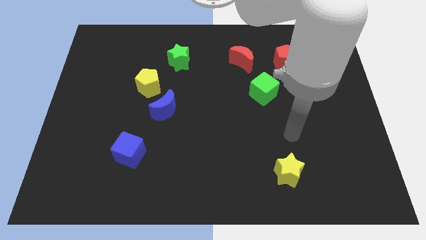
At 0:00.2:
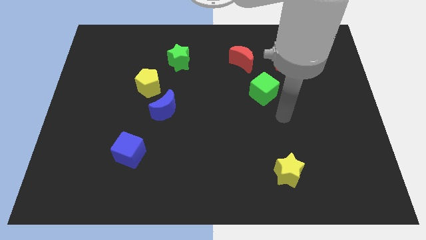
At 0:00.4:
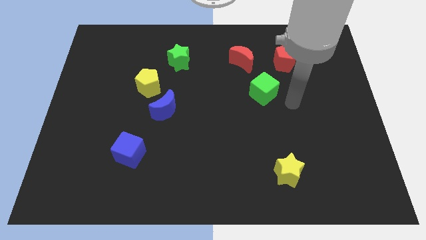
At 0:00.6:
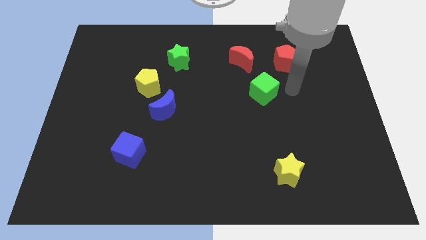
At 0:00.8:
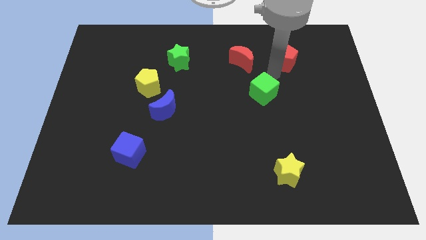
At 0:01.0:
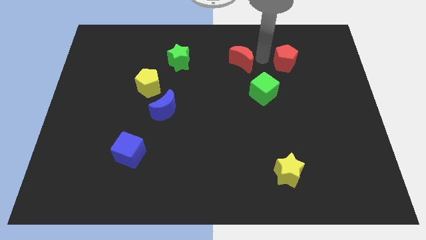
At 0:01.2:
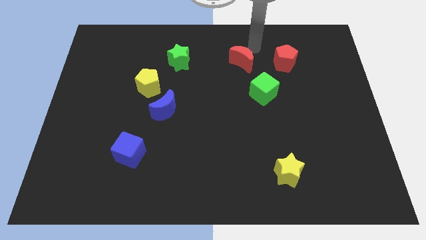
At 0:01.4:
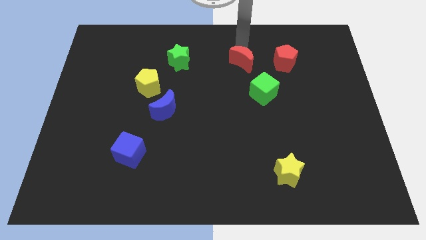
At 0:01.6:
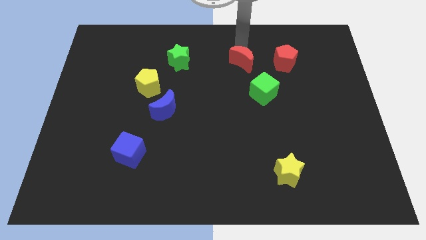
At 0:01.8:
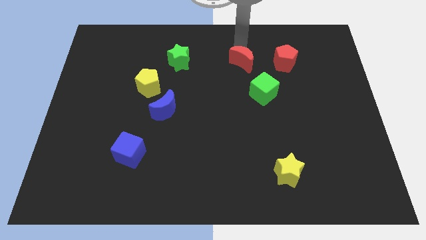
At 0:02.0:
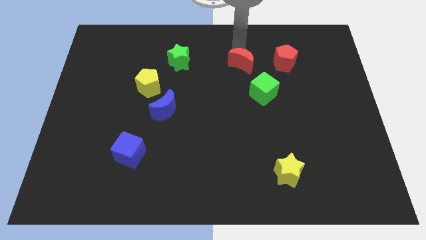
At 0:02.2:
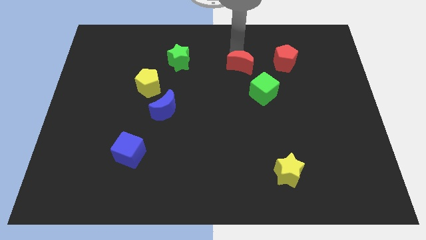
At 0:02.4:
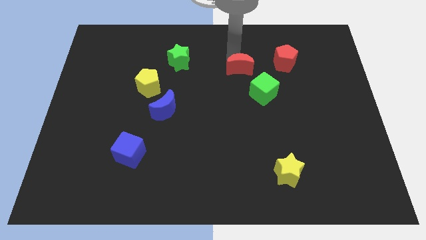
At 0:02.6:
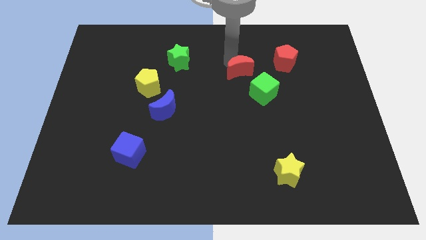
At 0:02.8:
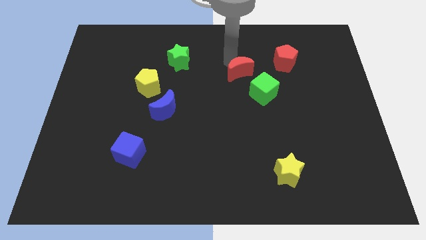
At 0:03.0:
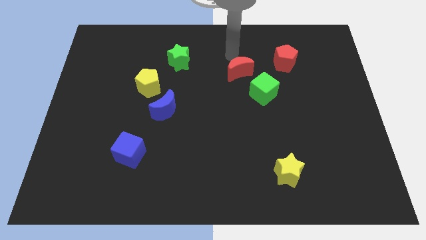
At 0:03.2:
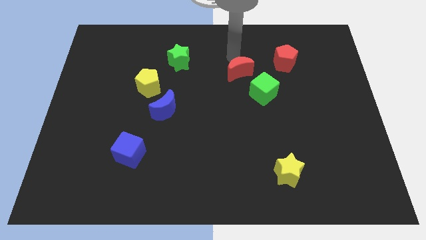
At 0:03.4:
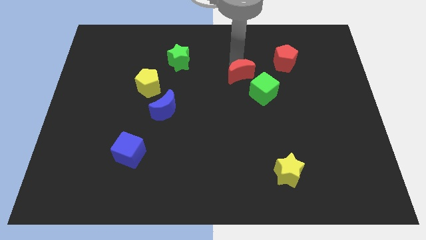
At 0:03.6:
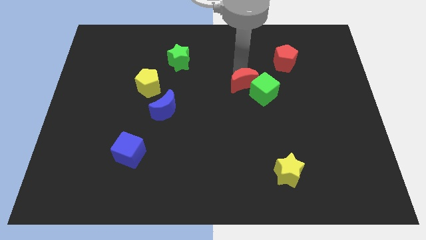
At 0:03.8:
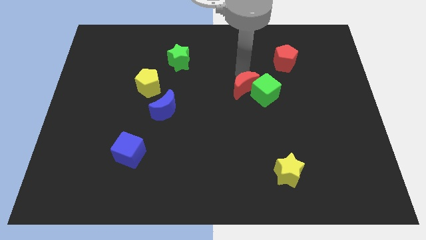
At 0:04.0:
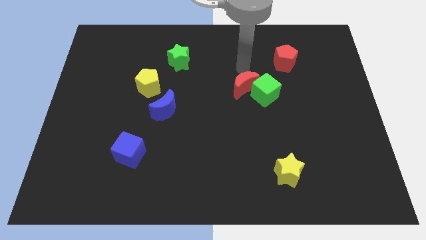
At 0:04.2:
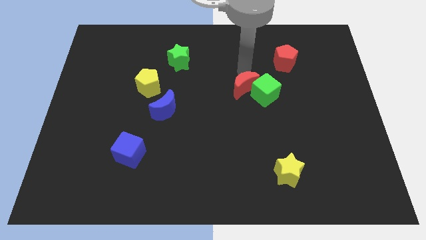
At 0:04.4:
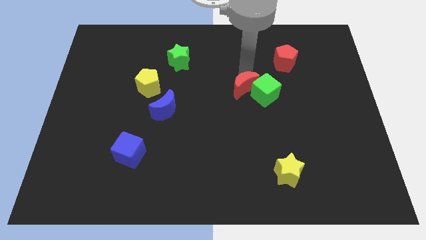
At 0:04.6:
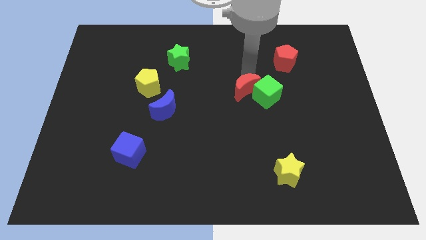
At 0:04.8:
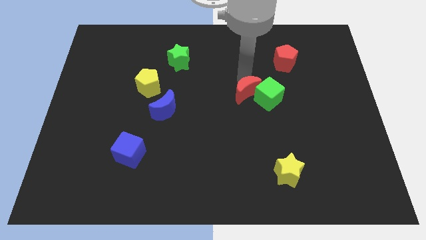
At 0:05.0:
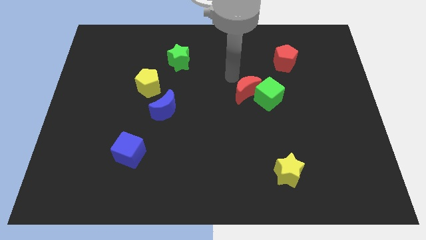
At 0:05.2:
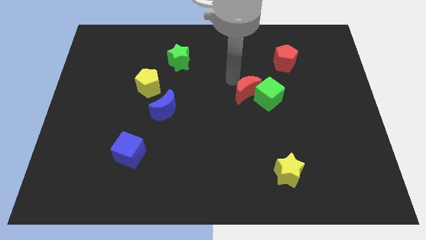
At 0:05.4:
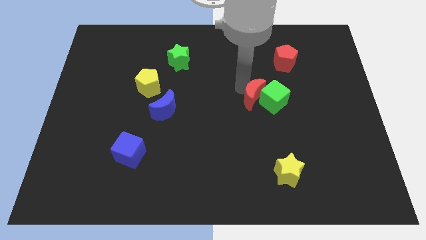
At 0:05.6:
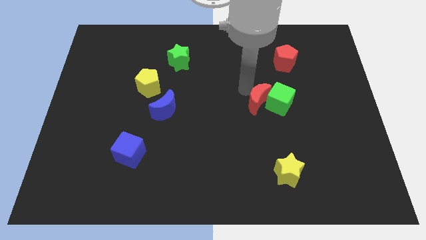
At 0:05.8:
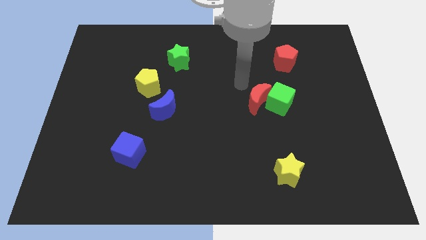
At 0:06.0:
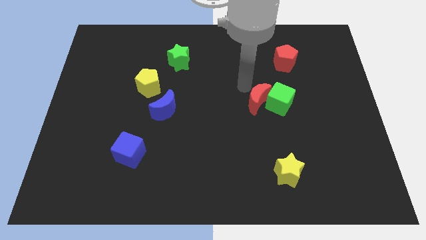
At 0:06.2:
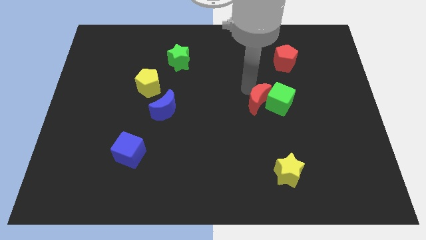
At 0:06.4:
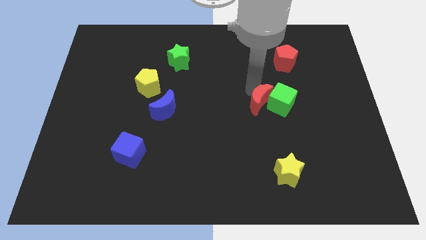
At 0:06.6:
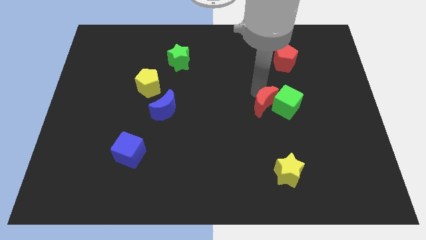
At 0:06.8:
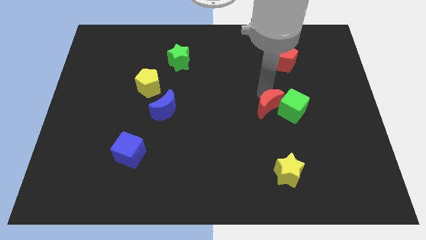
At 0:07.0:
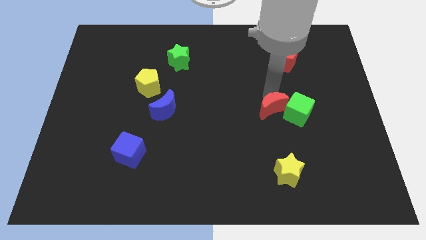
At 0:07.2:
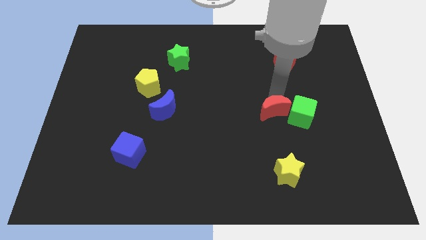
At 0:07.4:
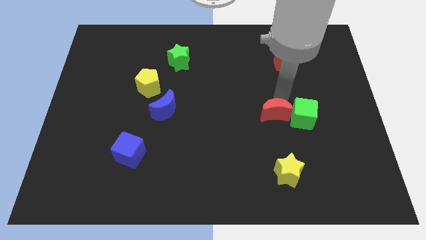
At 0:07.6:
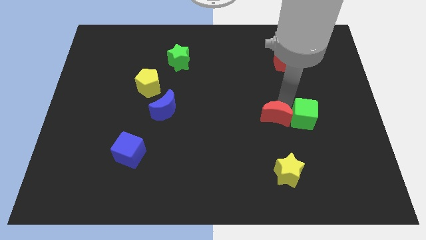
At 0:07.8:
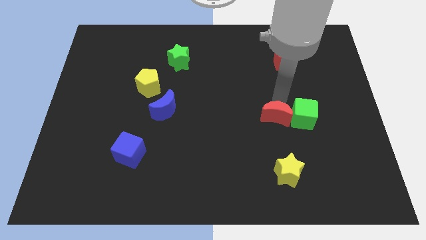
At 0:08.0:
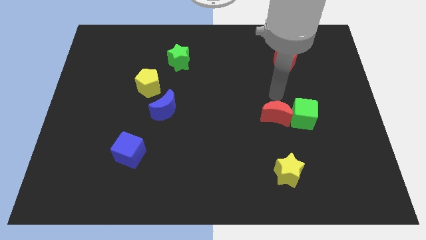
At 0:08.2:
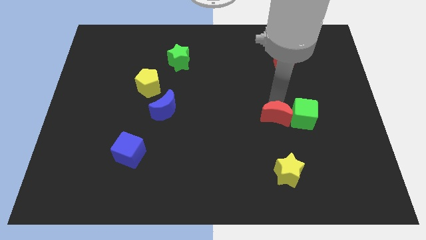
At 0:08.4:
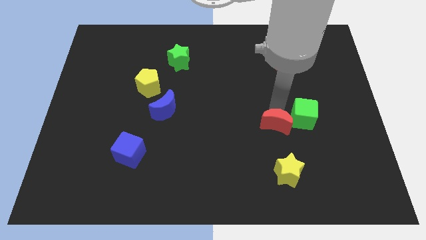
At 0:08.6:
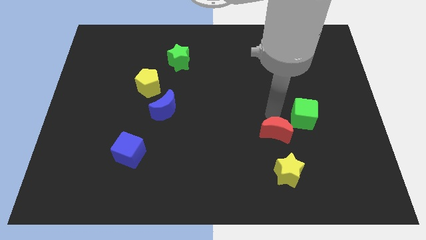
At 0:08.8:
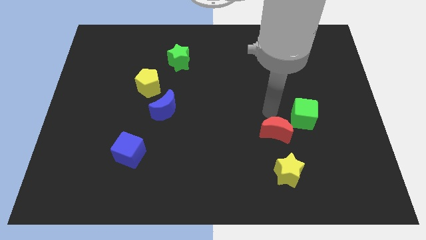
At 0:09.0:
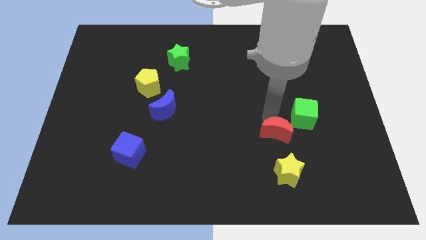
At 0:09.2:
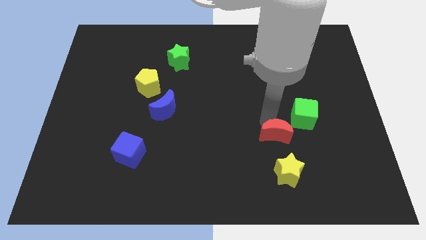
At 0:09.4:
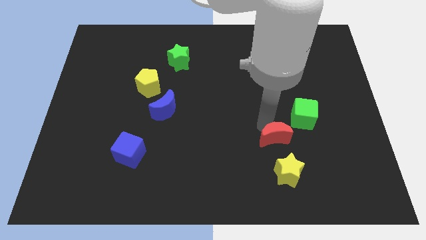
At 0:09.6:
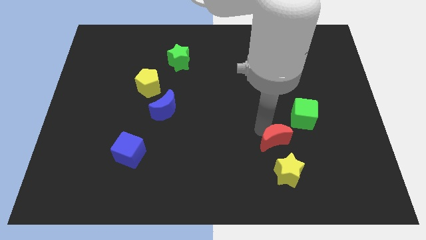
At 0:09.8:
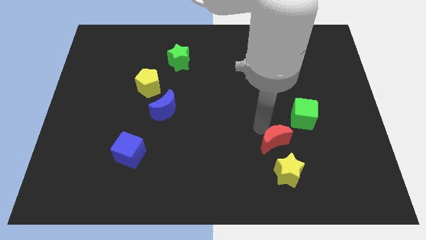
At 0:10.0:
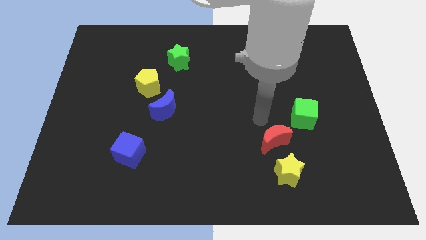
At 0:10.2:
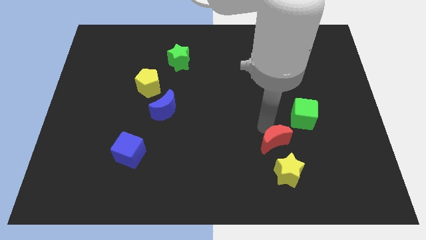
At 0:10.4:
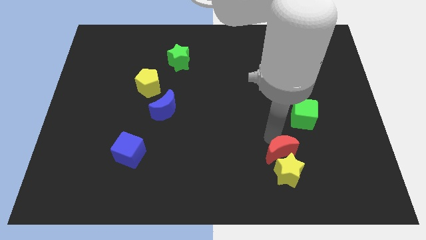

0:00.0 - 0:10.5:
push the red moon close to the yellow star

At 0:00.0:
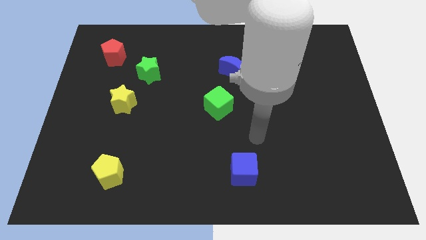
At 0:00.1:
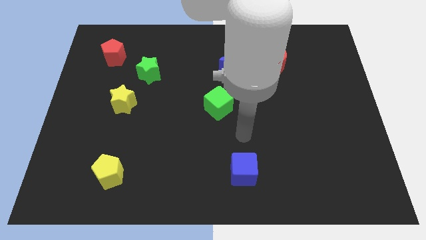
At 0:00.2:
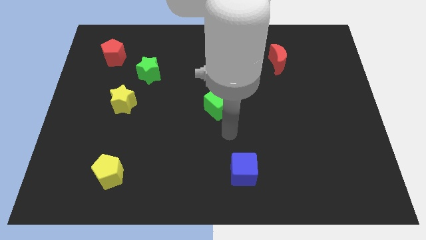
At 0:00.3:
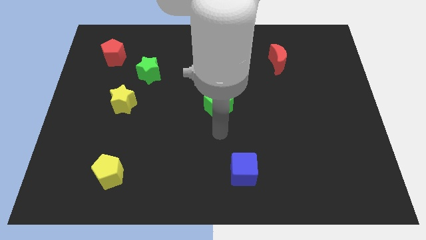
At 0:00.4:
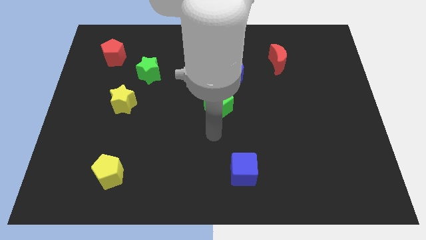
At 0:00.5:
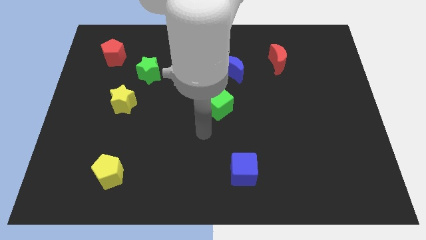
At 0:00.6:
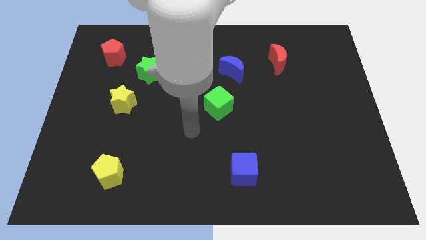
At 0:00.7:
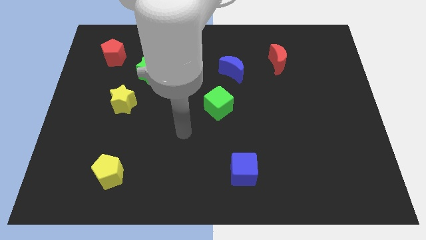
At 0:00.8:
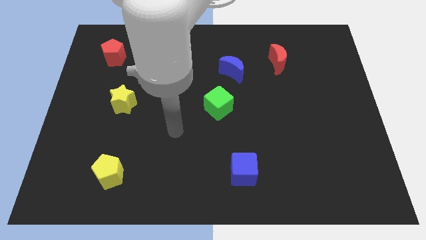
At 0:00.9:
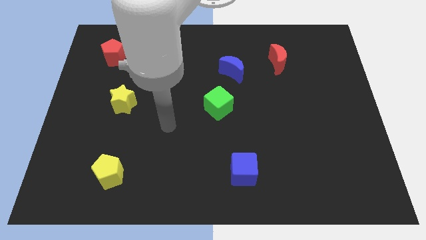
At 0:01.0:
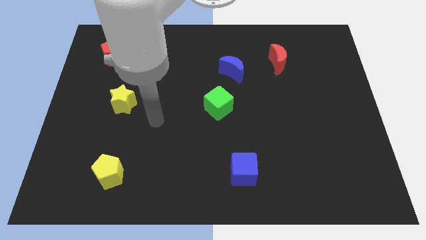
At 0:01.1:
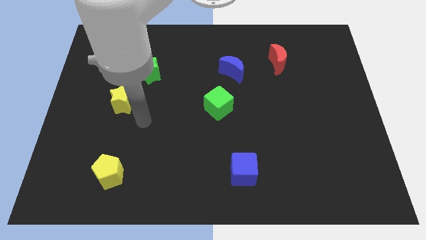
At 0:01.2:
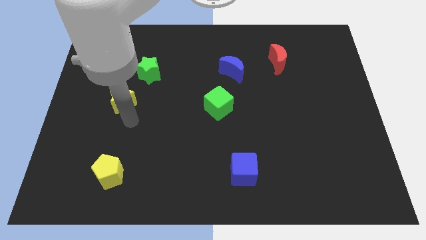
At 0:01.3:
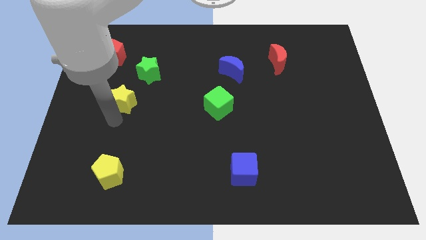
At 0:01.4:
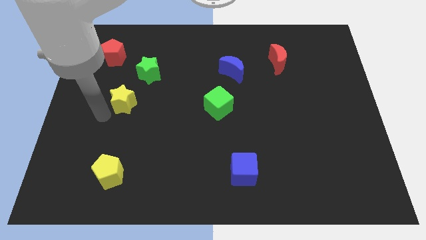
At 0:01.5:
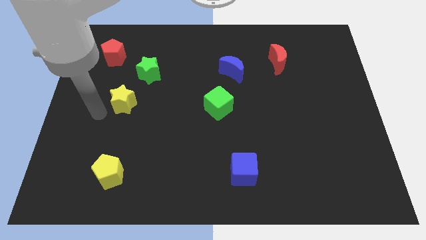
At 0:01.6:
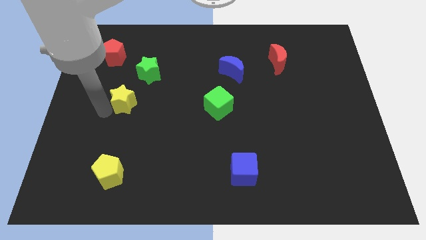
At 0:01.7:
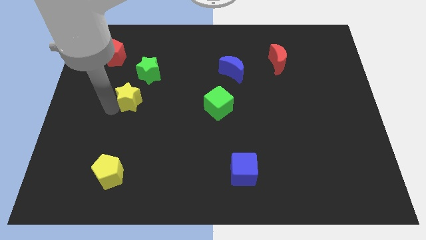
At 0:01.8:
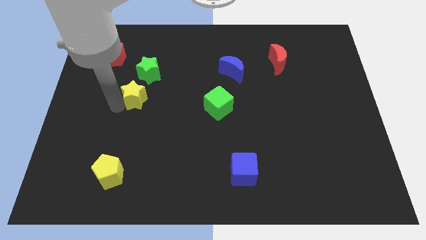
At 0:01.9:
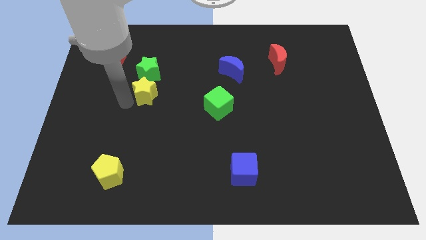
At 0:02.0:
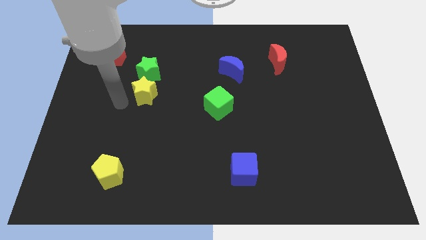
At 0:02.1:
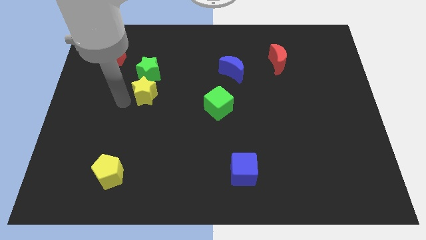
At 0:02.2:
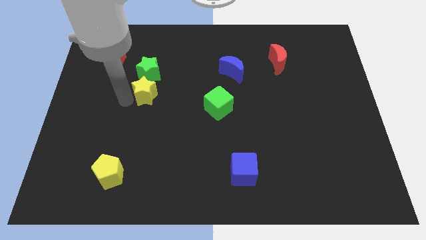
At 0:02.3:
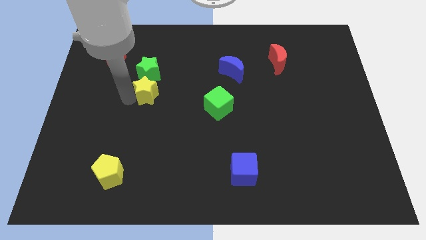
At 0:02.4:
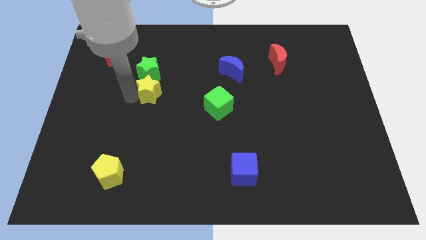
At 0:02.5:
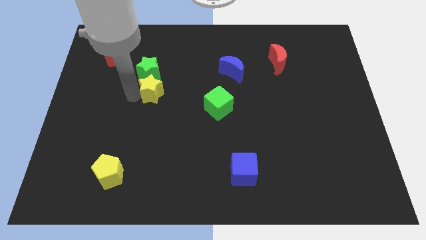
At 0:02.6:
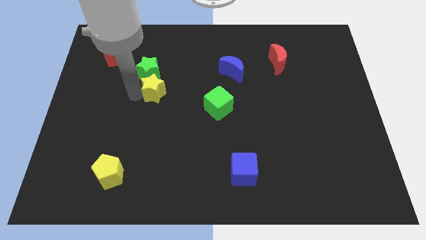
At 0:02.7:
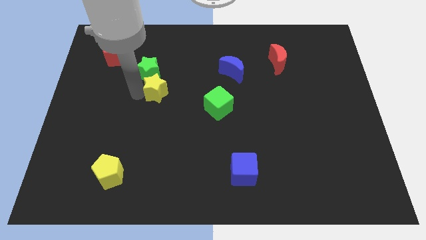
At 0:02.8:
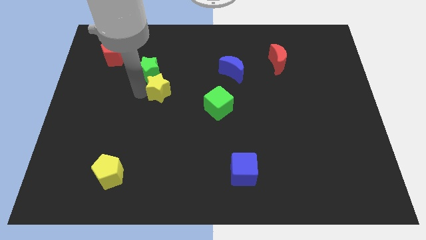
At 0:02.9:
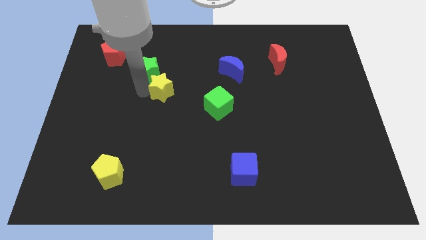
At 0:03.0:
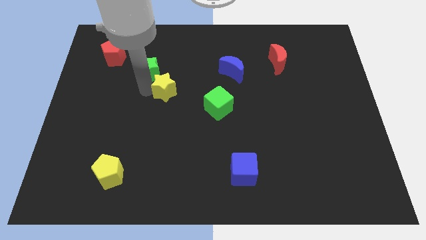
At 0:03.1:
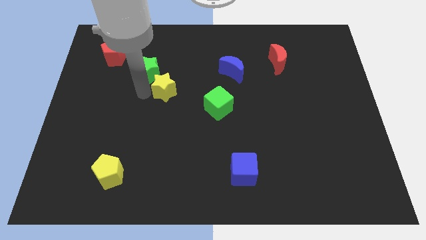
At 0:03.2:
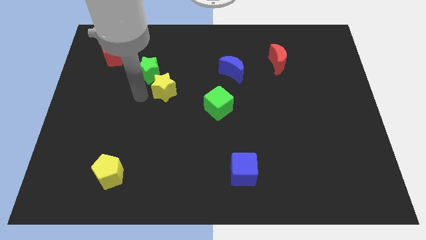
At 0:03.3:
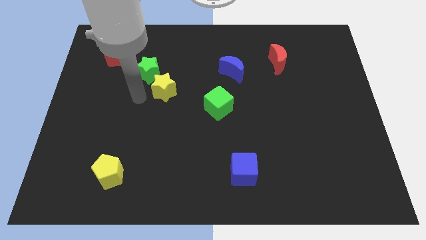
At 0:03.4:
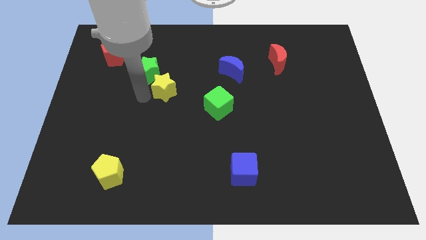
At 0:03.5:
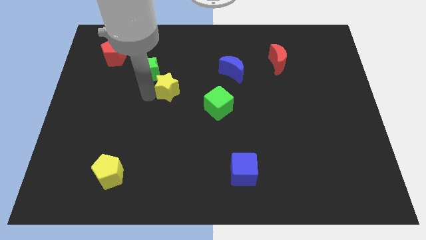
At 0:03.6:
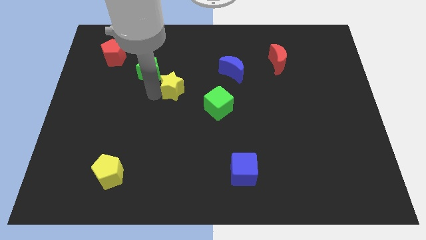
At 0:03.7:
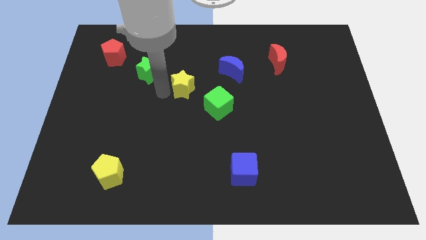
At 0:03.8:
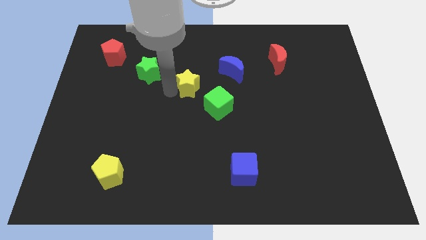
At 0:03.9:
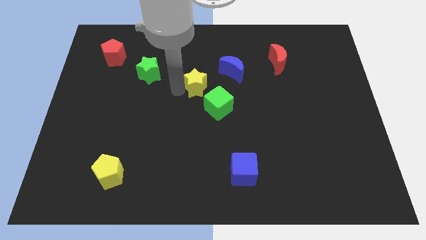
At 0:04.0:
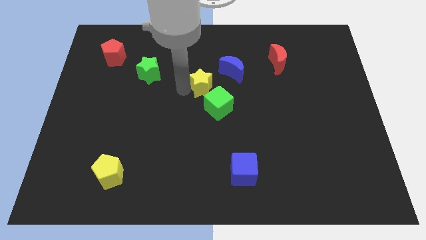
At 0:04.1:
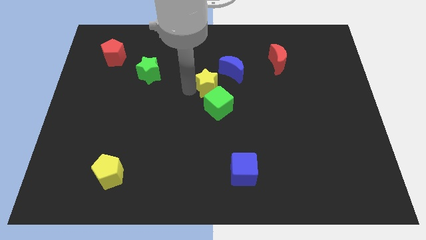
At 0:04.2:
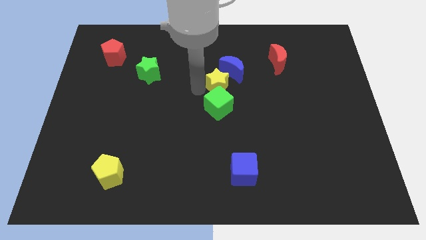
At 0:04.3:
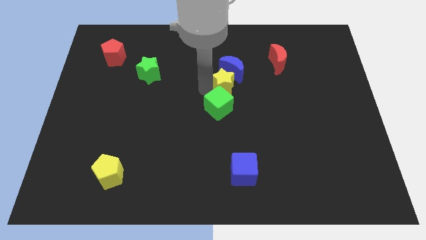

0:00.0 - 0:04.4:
move the yellow star close to the blue moon
